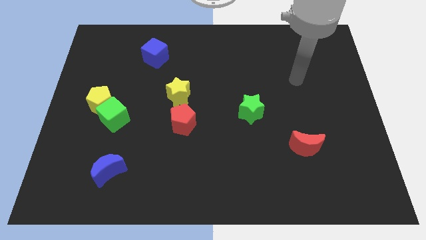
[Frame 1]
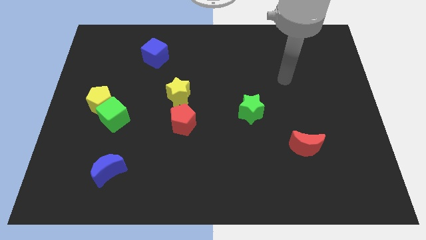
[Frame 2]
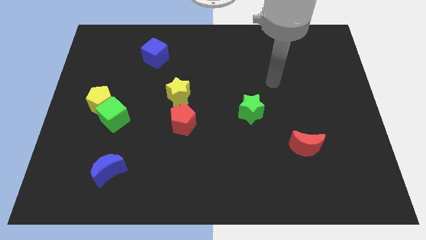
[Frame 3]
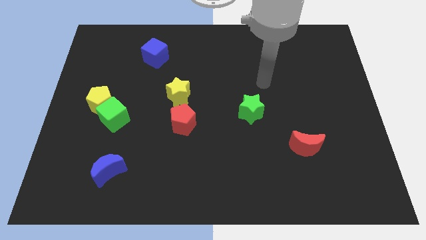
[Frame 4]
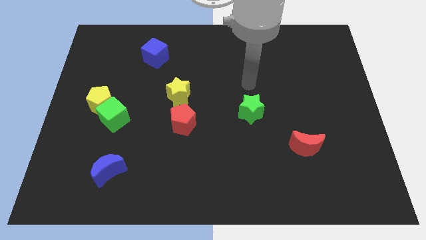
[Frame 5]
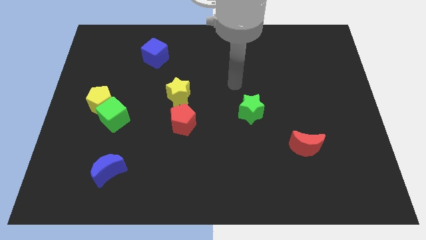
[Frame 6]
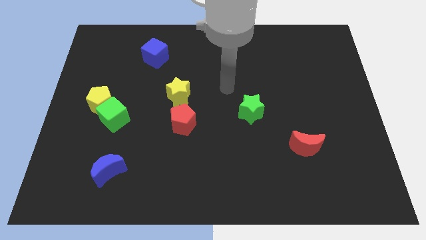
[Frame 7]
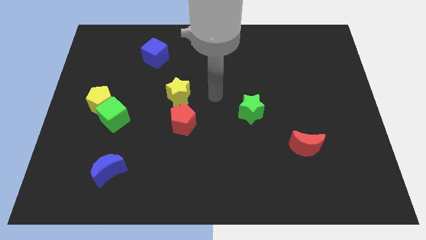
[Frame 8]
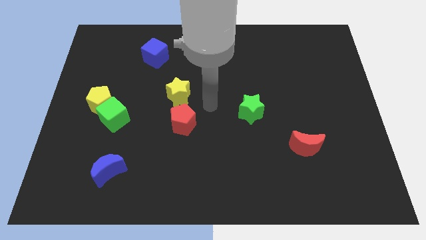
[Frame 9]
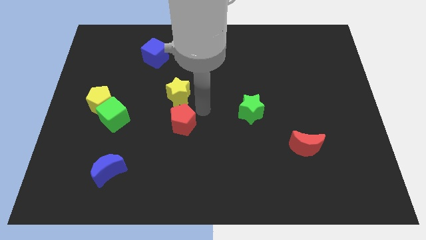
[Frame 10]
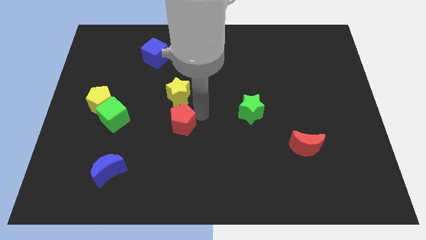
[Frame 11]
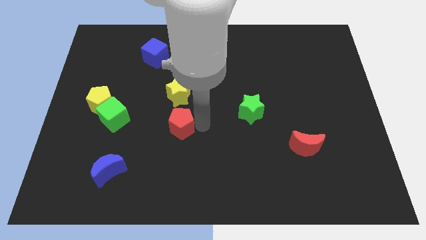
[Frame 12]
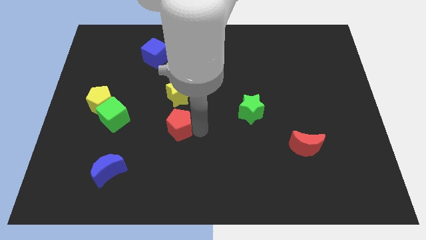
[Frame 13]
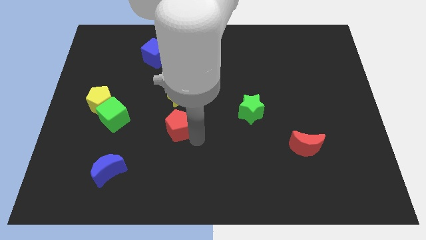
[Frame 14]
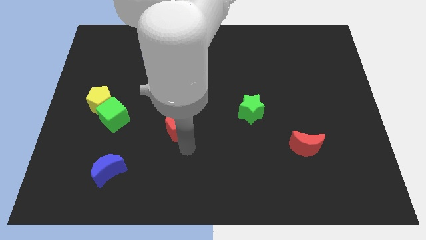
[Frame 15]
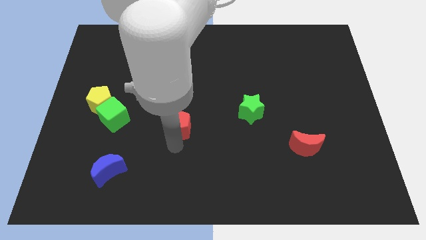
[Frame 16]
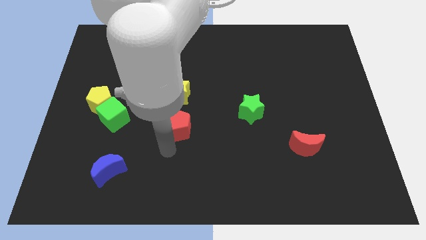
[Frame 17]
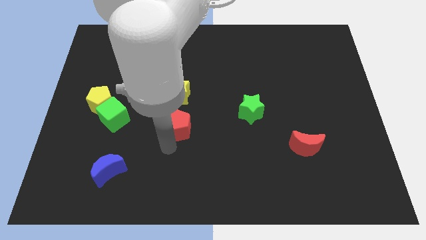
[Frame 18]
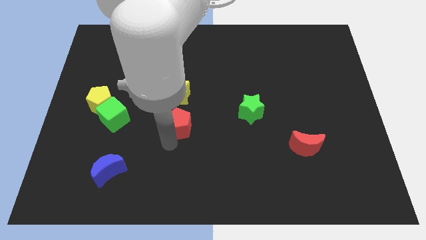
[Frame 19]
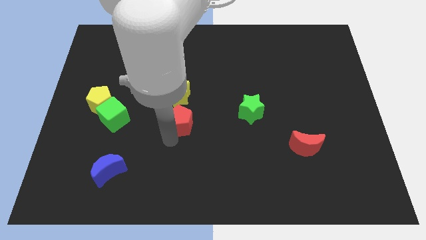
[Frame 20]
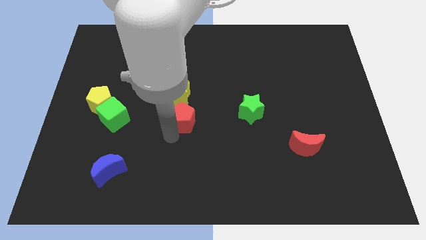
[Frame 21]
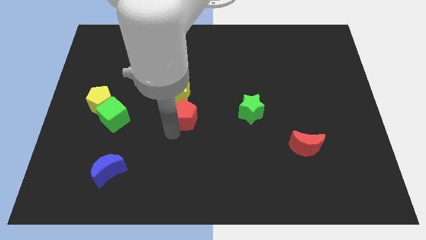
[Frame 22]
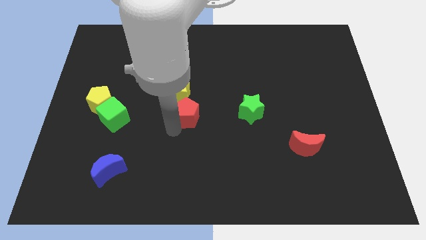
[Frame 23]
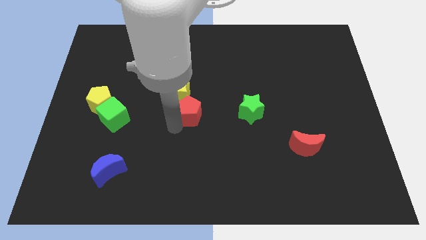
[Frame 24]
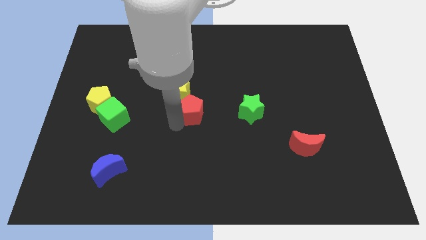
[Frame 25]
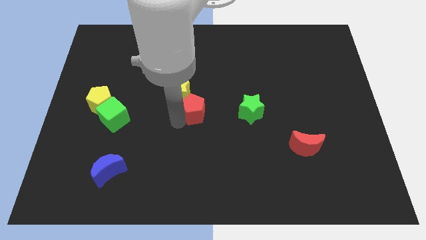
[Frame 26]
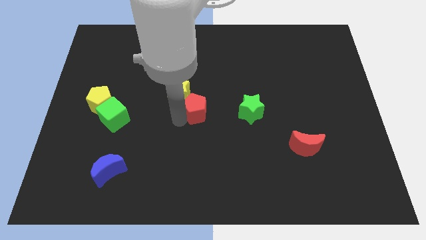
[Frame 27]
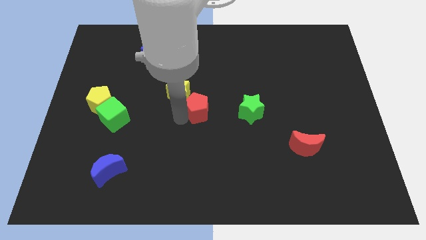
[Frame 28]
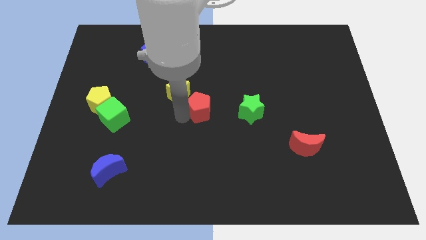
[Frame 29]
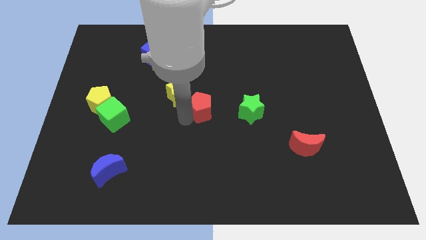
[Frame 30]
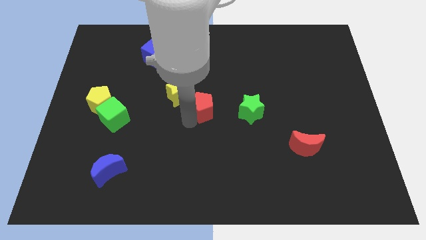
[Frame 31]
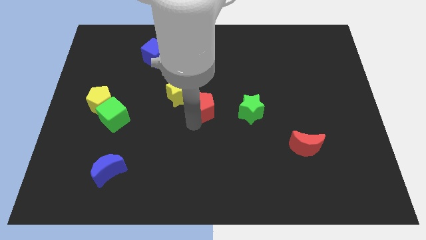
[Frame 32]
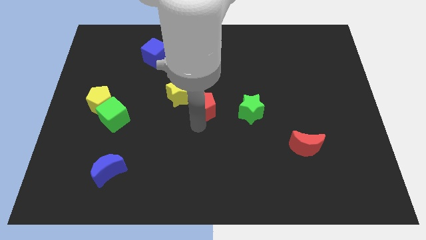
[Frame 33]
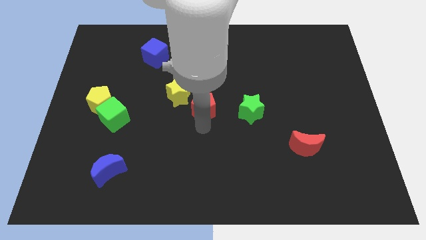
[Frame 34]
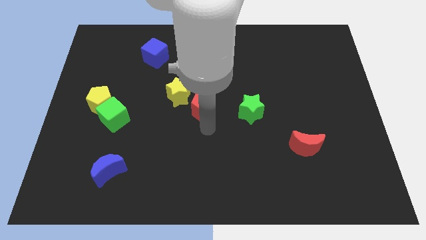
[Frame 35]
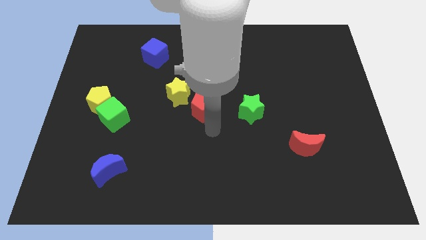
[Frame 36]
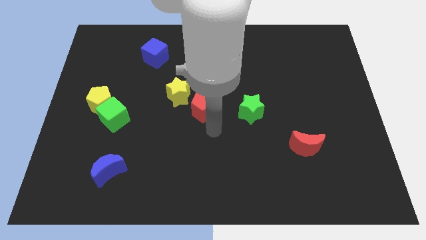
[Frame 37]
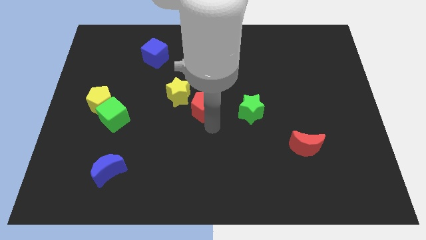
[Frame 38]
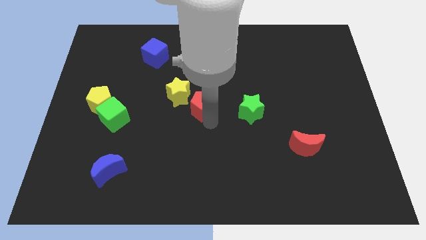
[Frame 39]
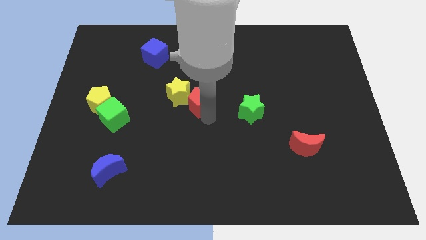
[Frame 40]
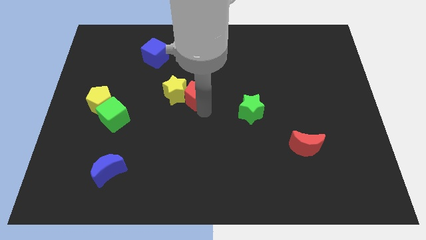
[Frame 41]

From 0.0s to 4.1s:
push the red pentagon a little upwards

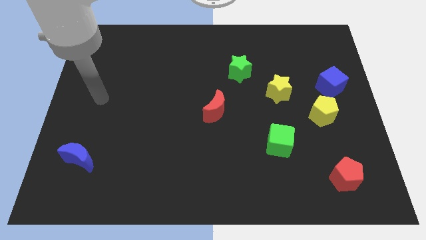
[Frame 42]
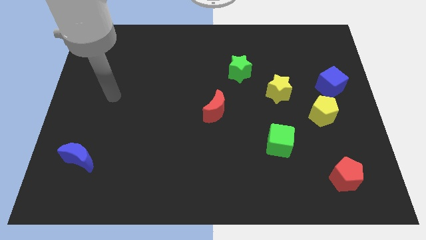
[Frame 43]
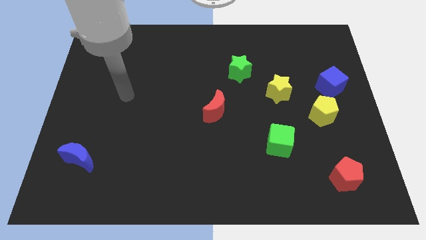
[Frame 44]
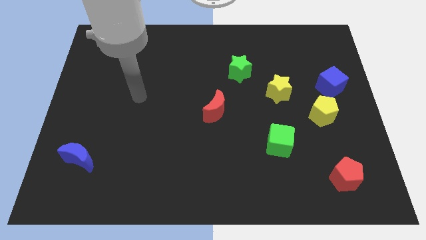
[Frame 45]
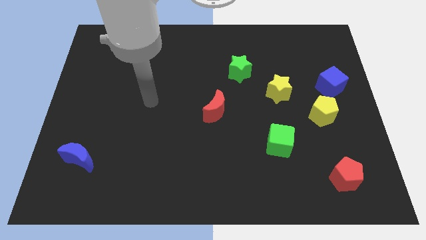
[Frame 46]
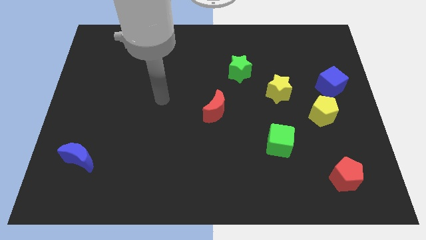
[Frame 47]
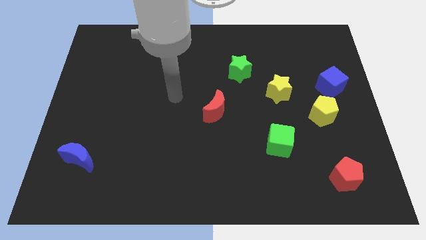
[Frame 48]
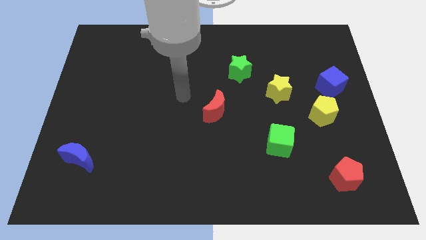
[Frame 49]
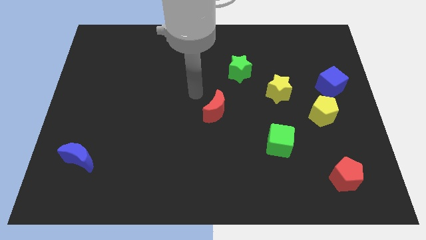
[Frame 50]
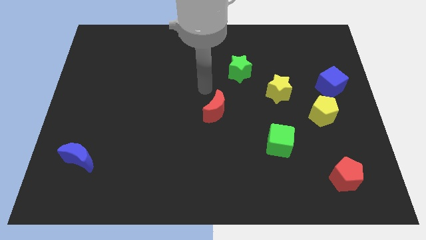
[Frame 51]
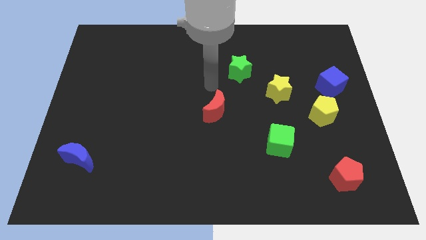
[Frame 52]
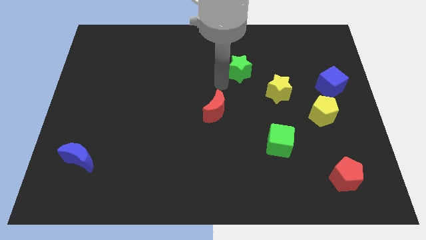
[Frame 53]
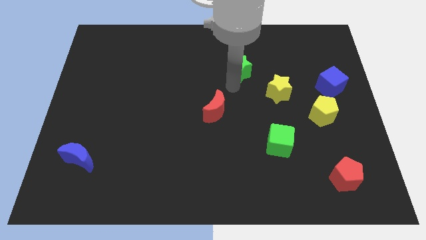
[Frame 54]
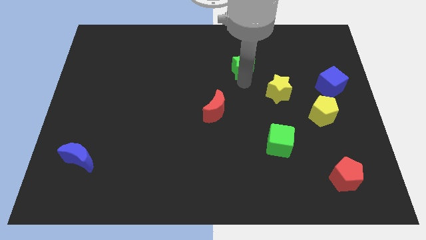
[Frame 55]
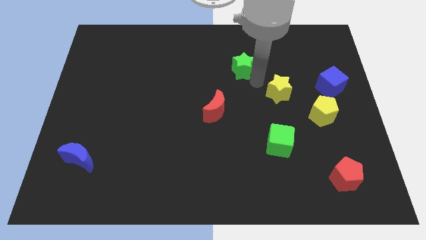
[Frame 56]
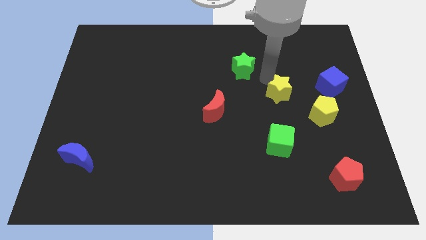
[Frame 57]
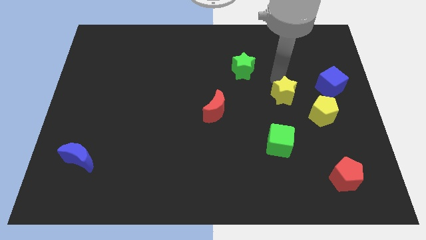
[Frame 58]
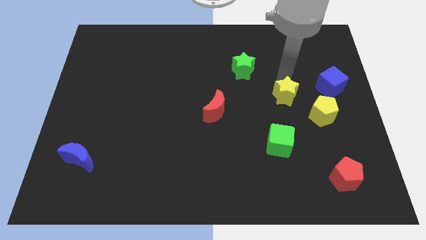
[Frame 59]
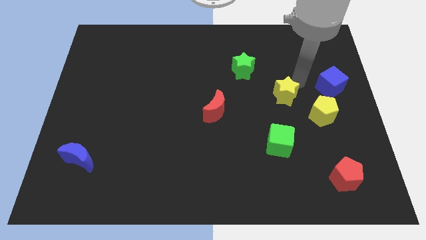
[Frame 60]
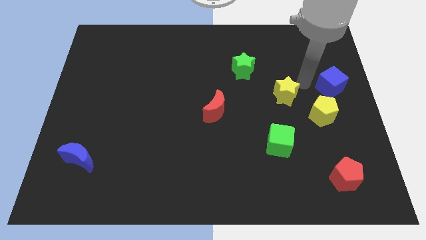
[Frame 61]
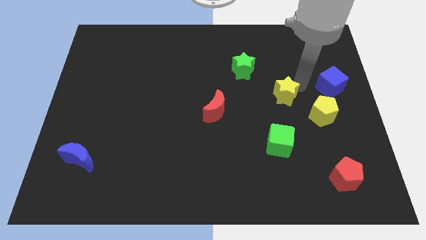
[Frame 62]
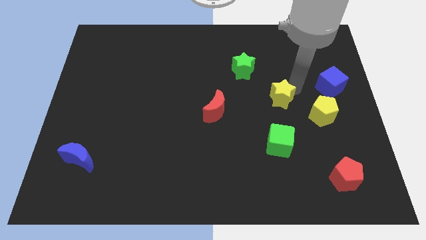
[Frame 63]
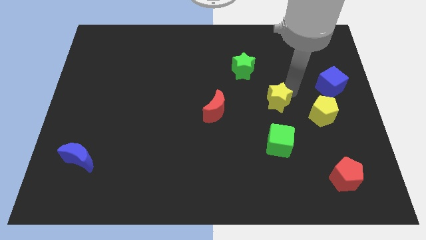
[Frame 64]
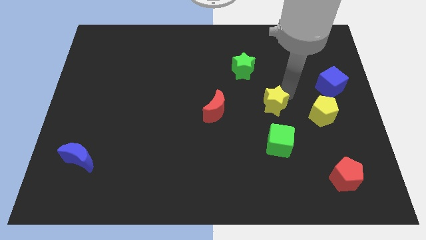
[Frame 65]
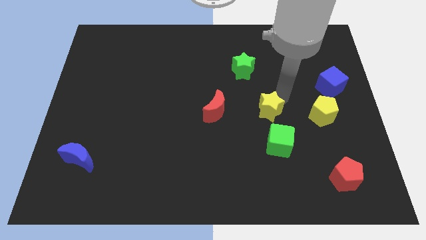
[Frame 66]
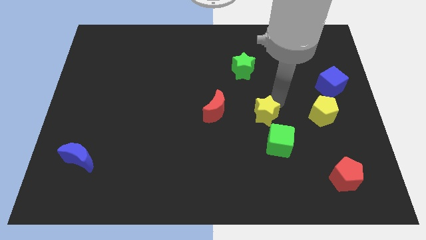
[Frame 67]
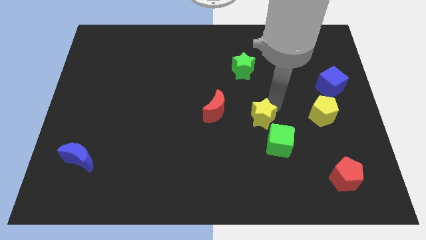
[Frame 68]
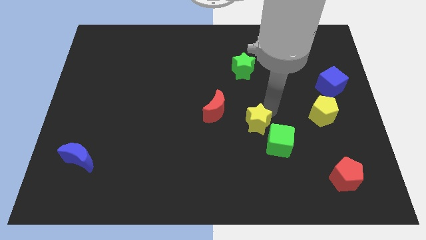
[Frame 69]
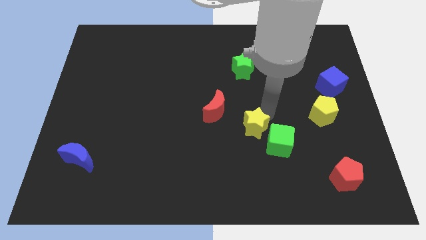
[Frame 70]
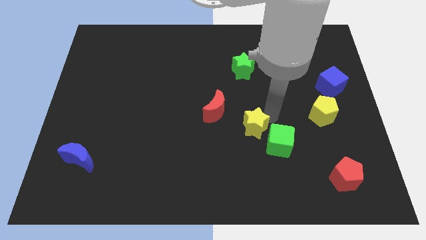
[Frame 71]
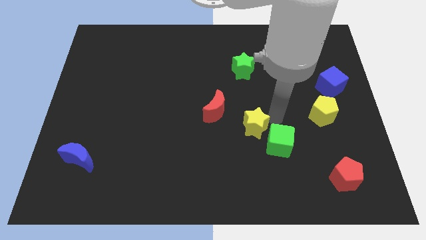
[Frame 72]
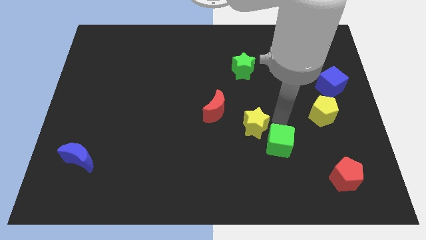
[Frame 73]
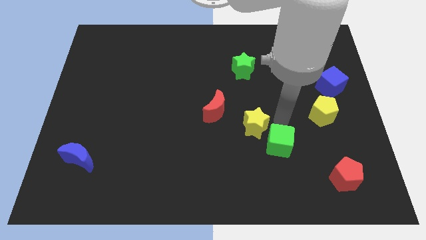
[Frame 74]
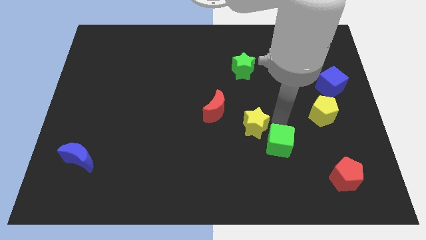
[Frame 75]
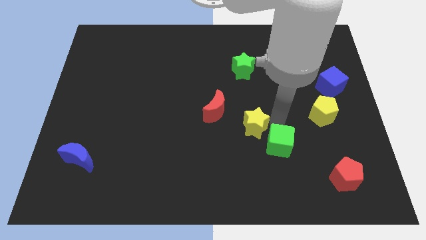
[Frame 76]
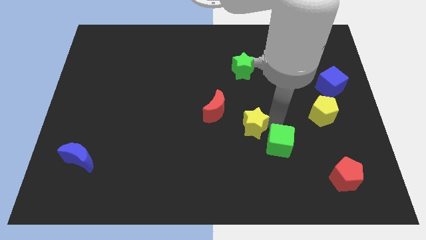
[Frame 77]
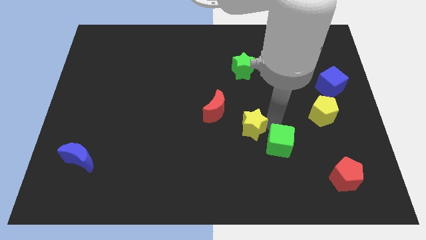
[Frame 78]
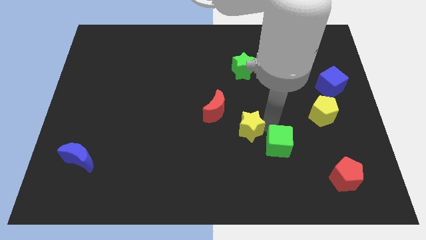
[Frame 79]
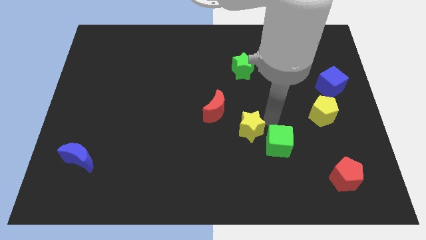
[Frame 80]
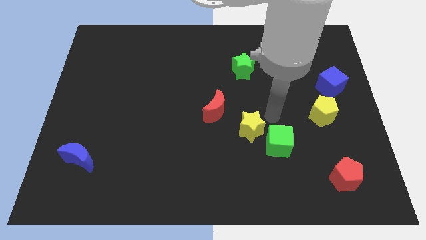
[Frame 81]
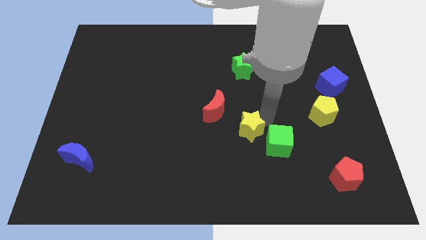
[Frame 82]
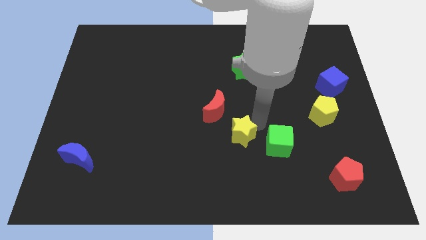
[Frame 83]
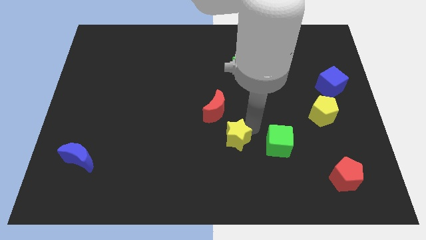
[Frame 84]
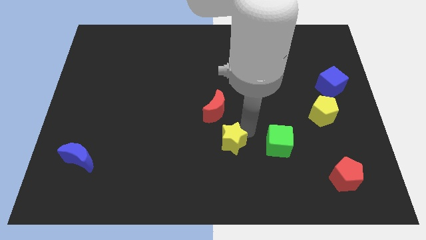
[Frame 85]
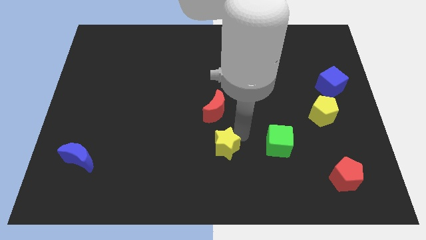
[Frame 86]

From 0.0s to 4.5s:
move the yellow star down and to the left diagonally
